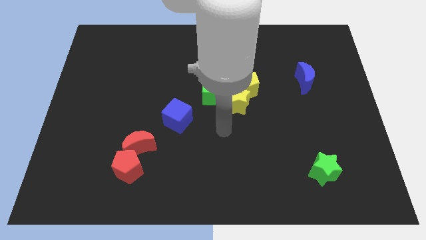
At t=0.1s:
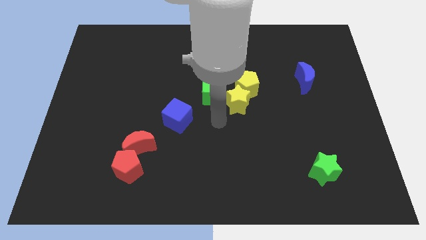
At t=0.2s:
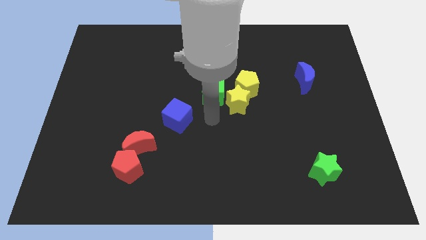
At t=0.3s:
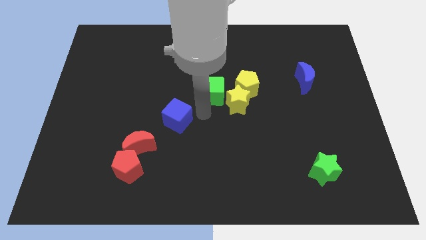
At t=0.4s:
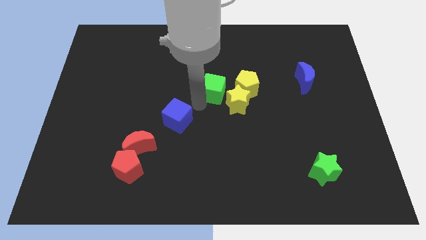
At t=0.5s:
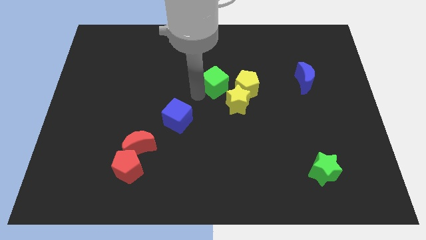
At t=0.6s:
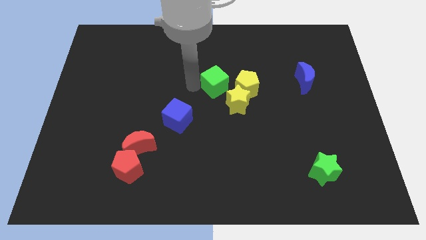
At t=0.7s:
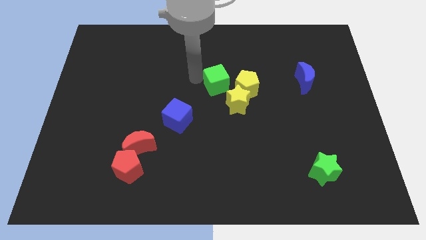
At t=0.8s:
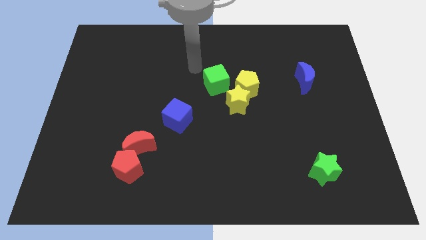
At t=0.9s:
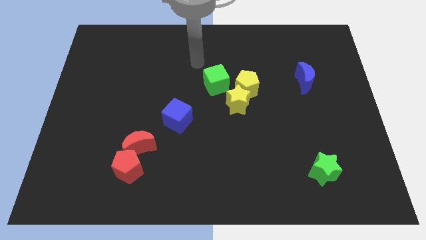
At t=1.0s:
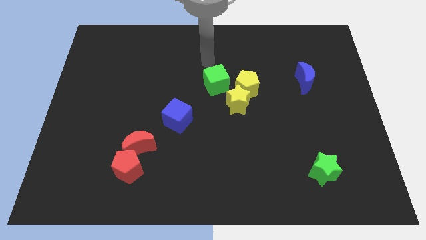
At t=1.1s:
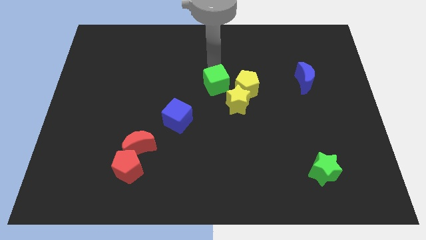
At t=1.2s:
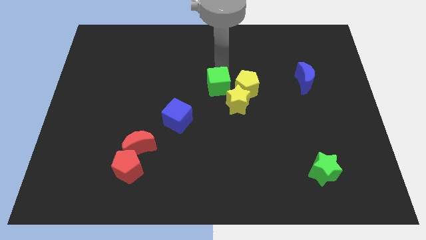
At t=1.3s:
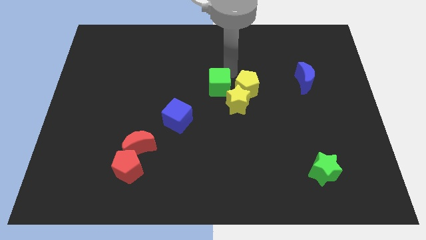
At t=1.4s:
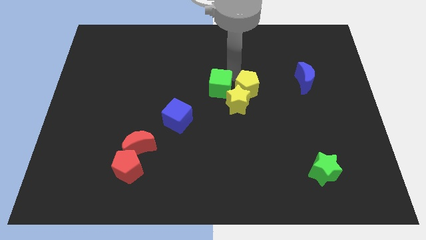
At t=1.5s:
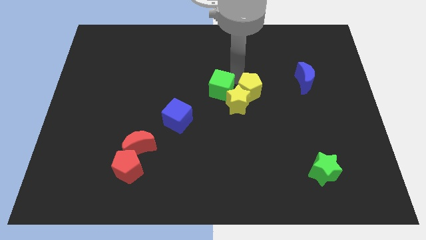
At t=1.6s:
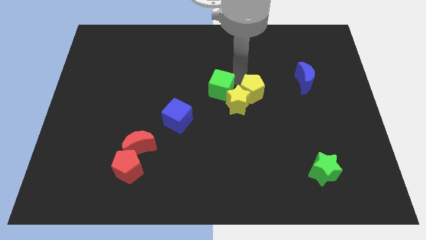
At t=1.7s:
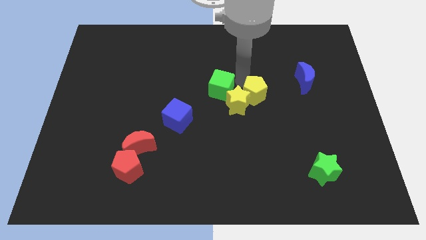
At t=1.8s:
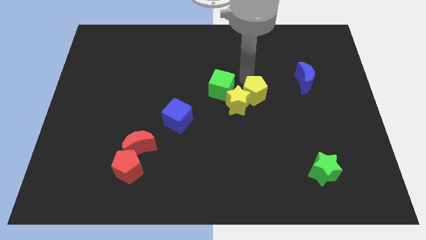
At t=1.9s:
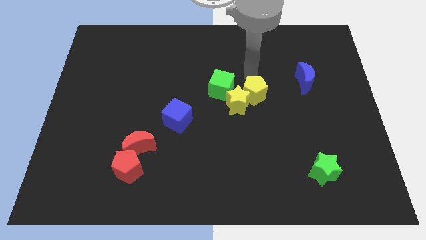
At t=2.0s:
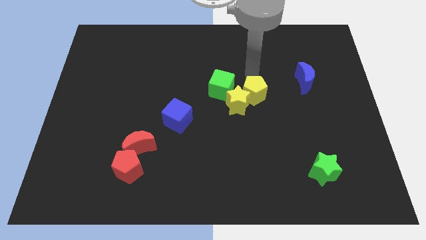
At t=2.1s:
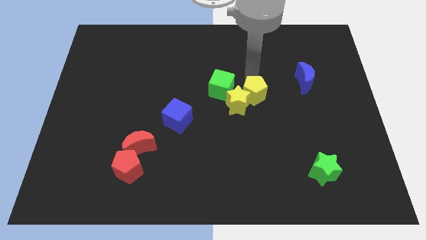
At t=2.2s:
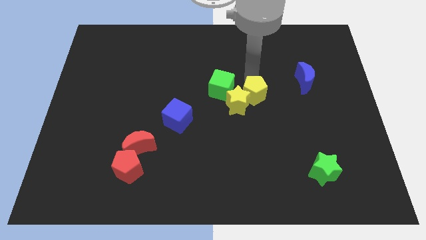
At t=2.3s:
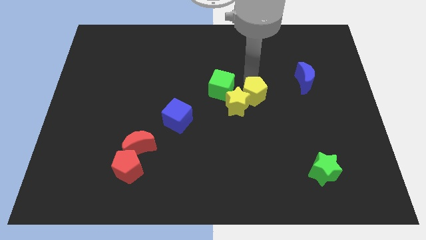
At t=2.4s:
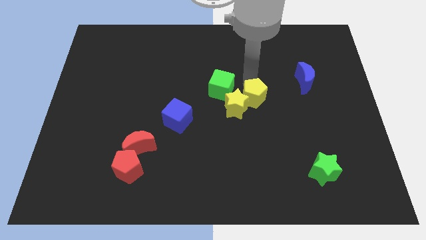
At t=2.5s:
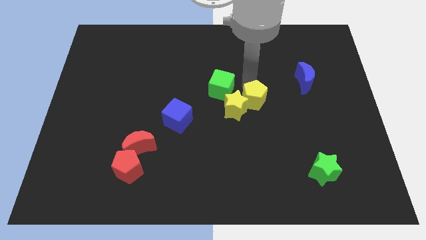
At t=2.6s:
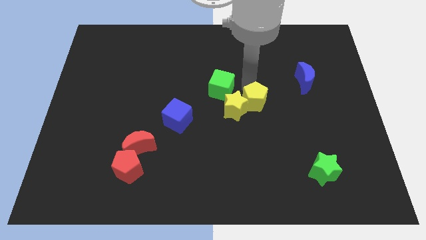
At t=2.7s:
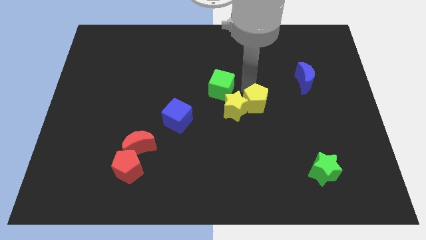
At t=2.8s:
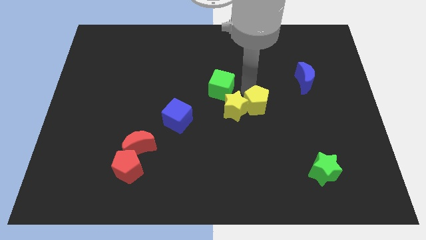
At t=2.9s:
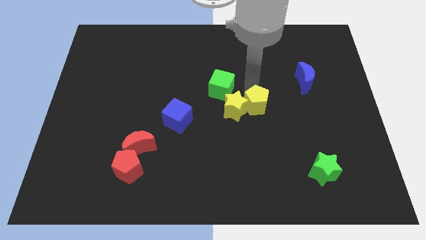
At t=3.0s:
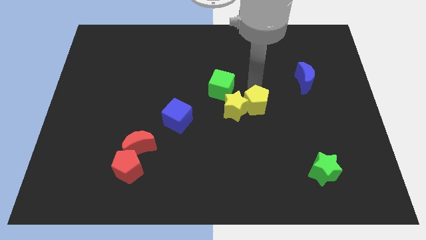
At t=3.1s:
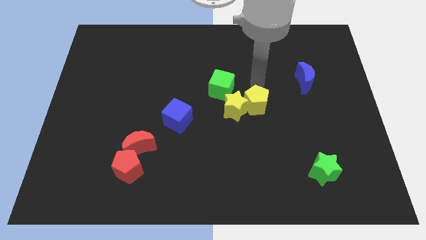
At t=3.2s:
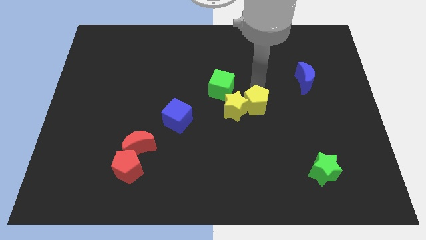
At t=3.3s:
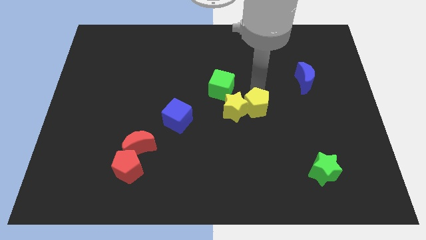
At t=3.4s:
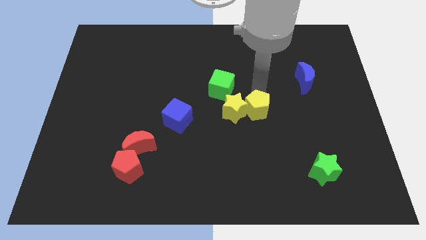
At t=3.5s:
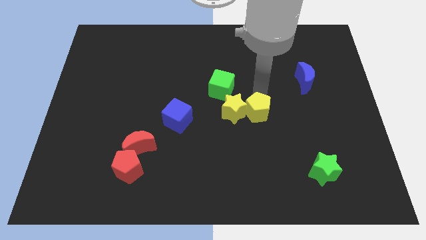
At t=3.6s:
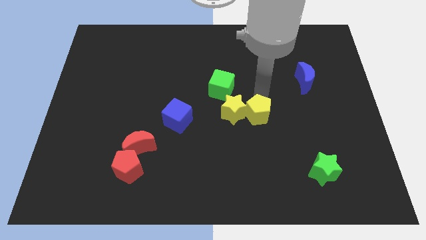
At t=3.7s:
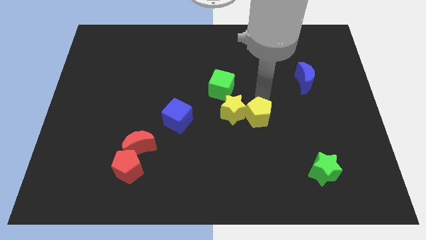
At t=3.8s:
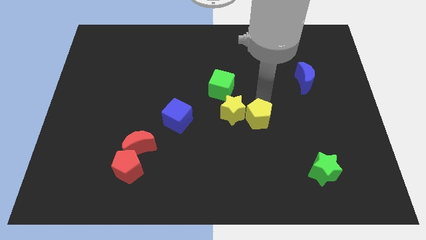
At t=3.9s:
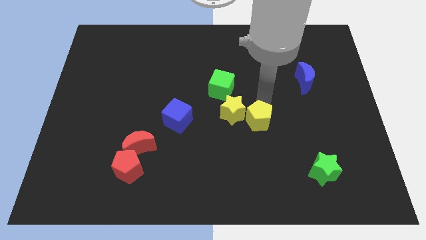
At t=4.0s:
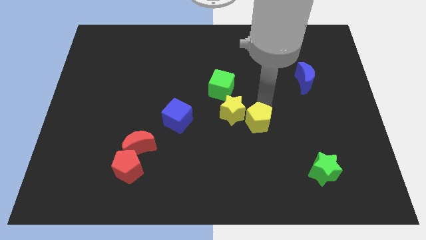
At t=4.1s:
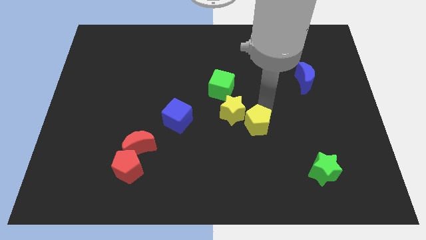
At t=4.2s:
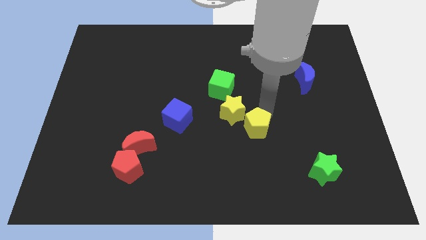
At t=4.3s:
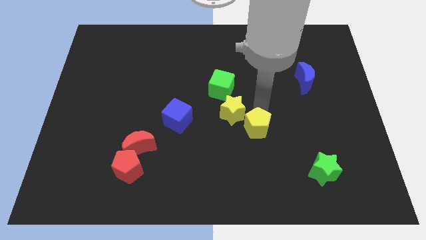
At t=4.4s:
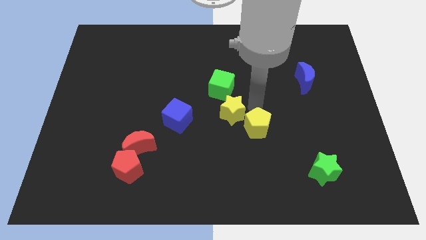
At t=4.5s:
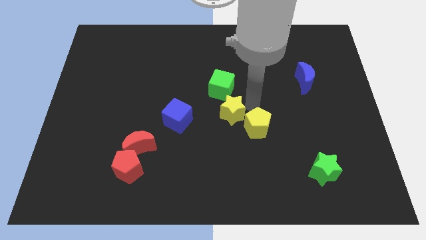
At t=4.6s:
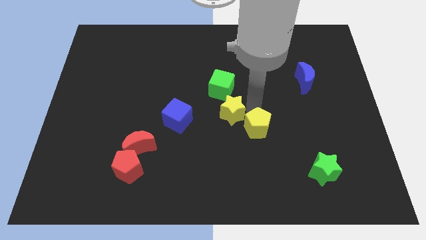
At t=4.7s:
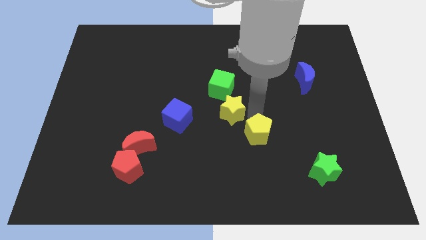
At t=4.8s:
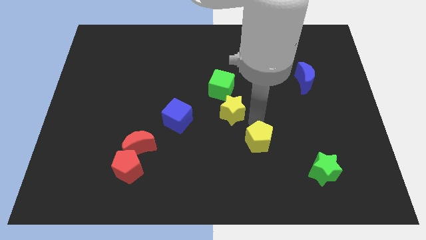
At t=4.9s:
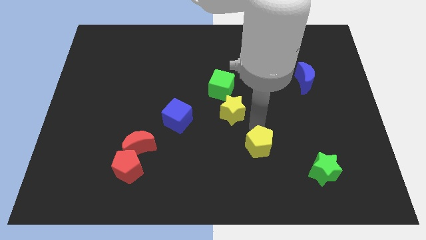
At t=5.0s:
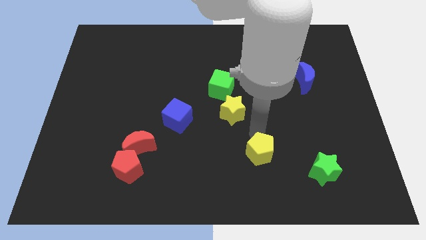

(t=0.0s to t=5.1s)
slide the yellow pentagon left of the green star

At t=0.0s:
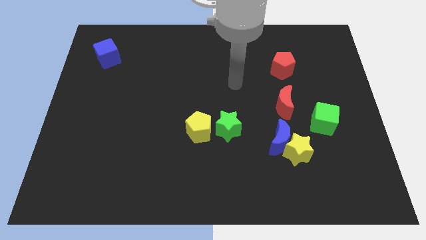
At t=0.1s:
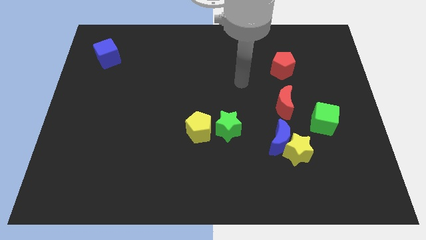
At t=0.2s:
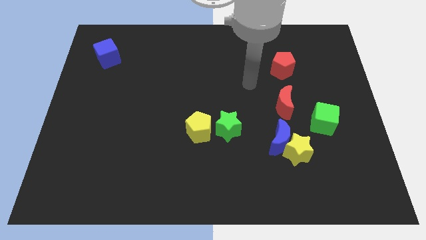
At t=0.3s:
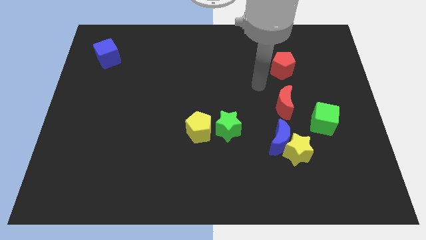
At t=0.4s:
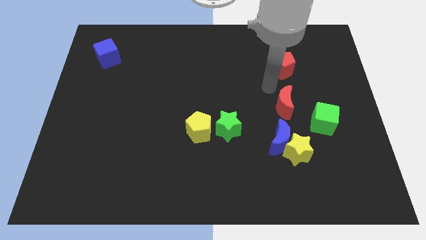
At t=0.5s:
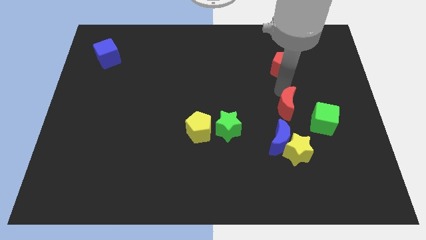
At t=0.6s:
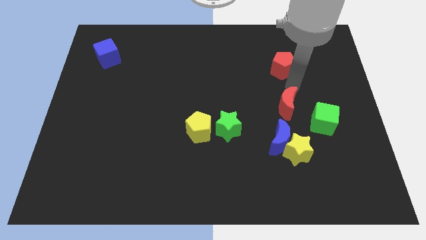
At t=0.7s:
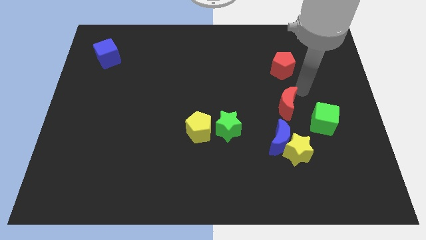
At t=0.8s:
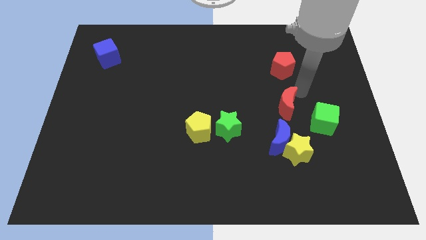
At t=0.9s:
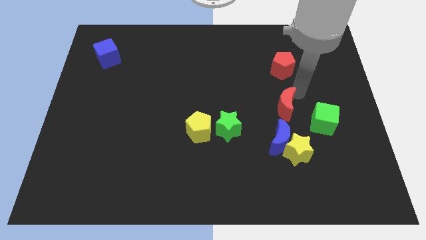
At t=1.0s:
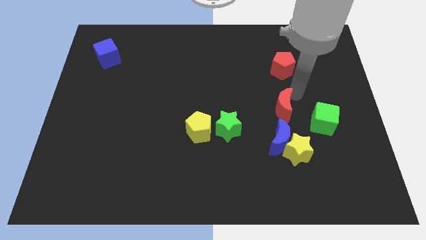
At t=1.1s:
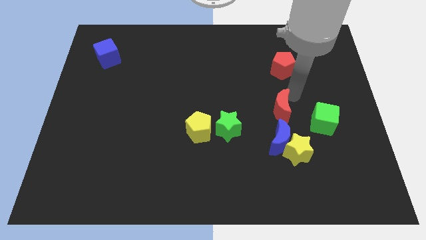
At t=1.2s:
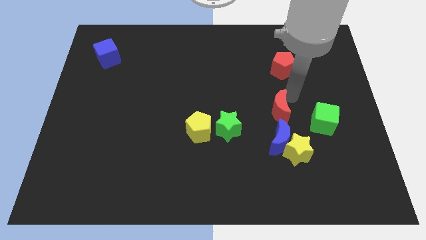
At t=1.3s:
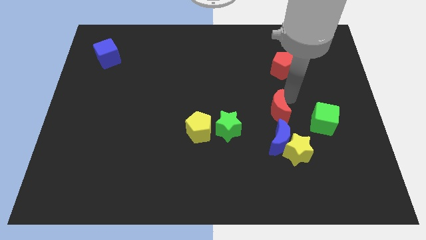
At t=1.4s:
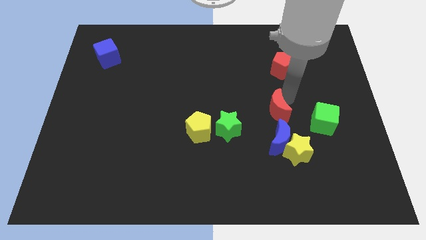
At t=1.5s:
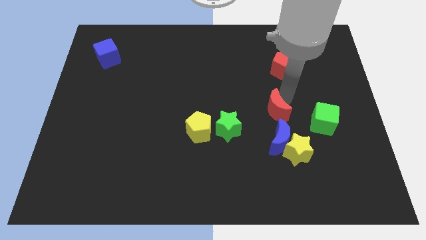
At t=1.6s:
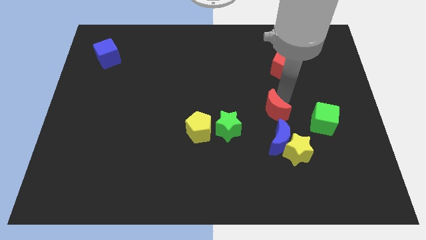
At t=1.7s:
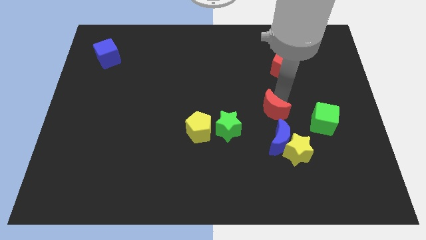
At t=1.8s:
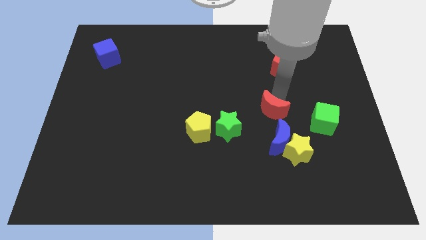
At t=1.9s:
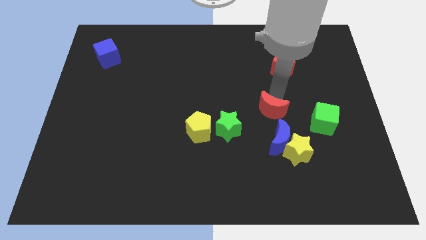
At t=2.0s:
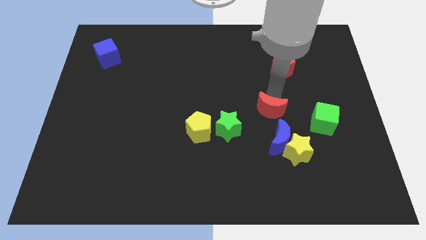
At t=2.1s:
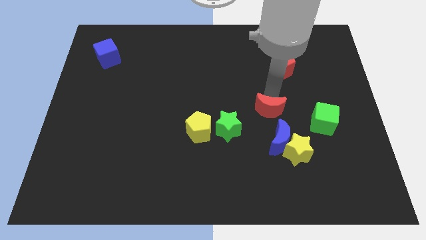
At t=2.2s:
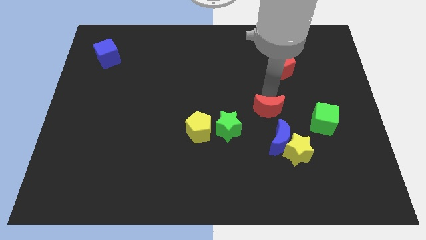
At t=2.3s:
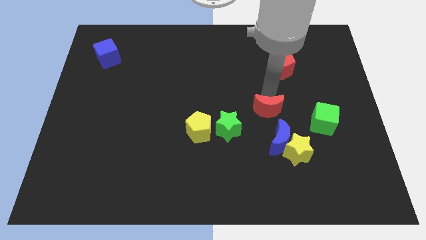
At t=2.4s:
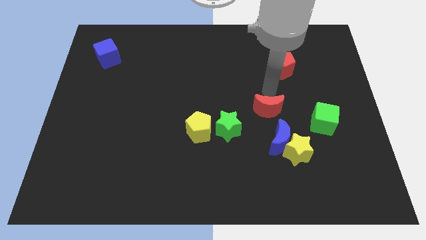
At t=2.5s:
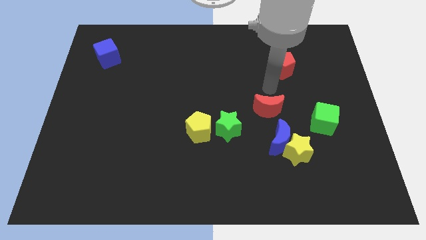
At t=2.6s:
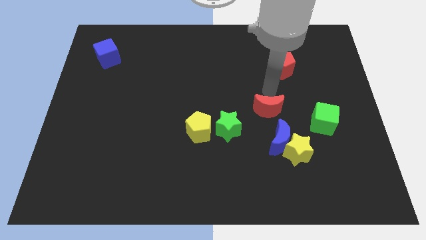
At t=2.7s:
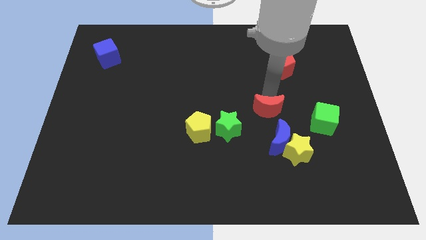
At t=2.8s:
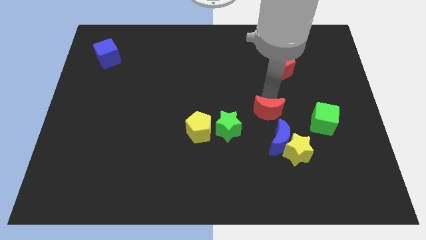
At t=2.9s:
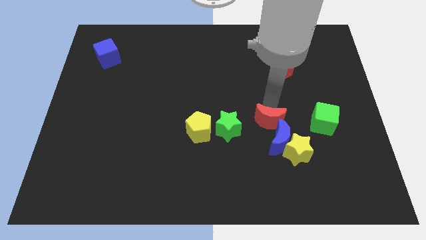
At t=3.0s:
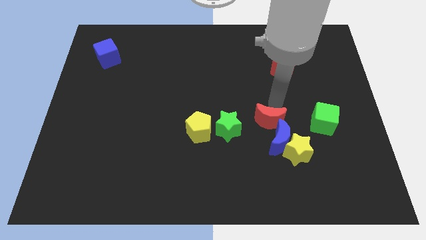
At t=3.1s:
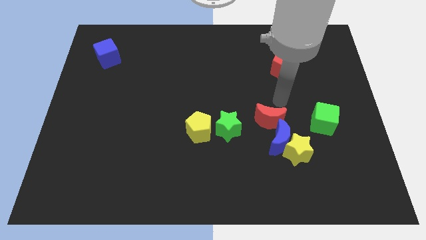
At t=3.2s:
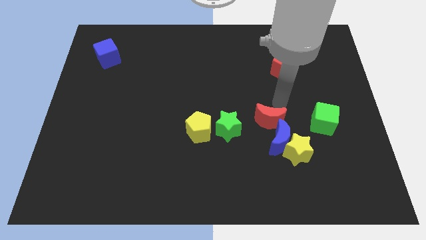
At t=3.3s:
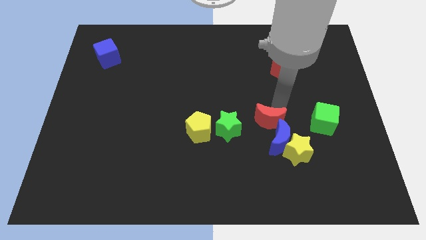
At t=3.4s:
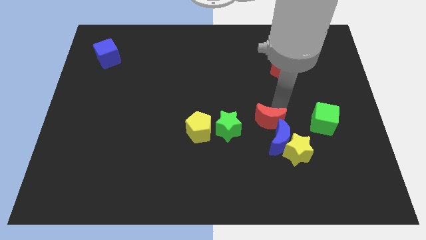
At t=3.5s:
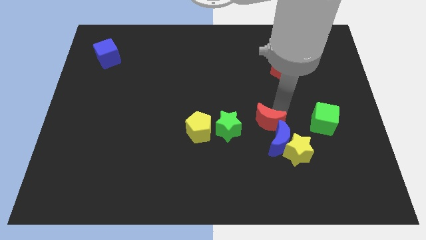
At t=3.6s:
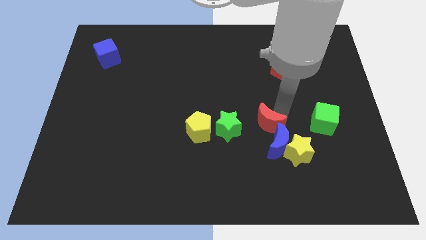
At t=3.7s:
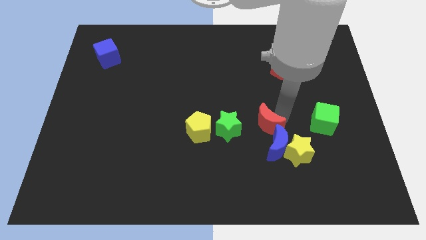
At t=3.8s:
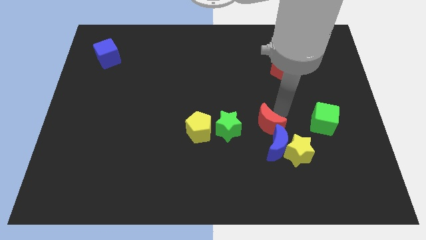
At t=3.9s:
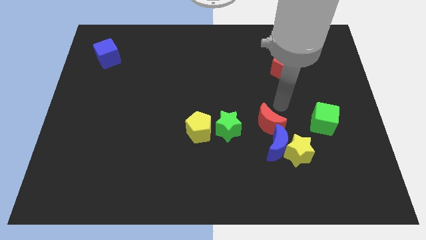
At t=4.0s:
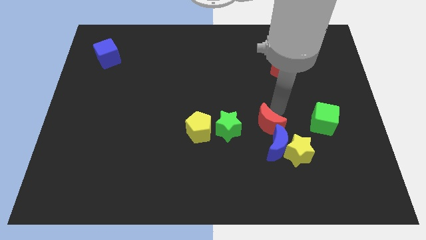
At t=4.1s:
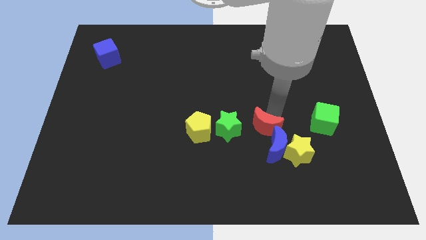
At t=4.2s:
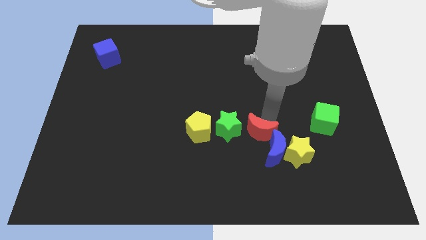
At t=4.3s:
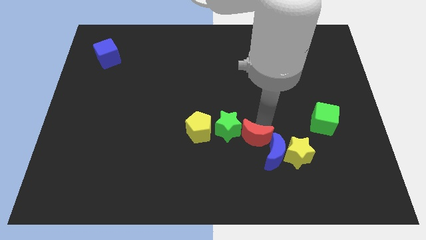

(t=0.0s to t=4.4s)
slide the red moon to the left of the yellow star
